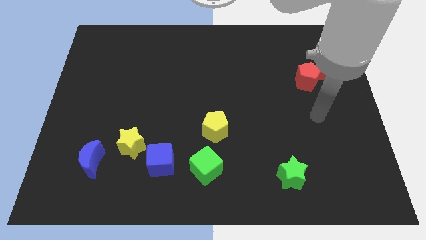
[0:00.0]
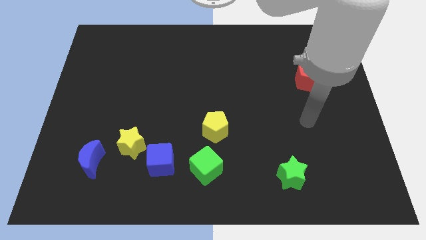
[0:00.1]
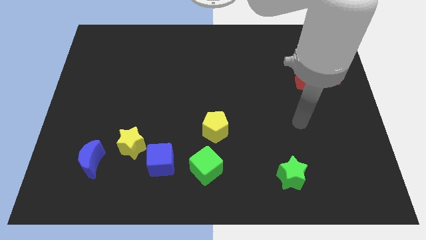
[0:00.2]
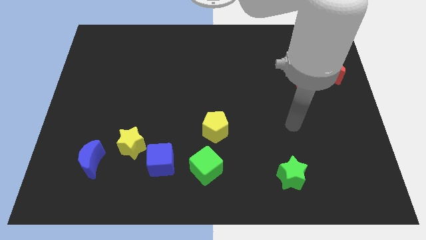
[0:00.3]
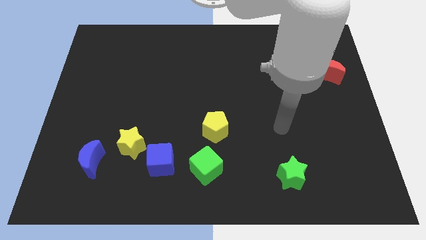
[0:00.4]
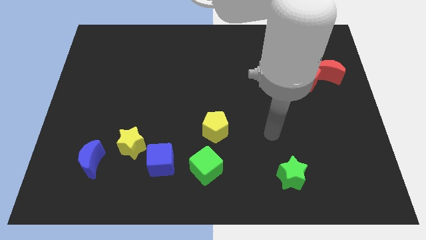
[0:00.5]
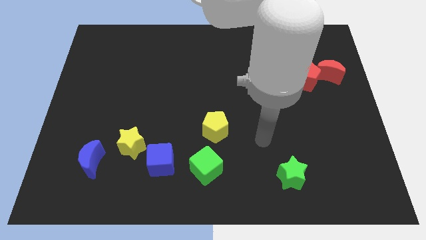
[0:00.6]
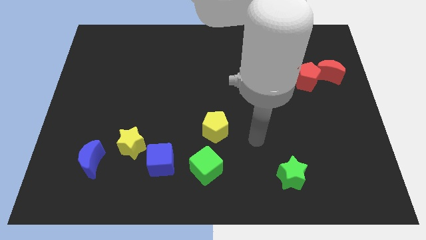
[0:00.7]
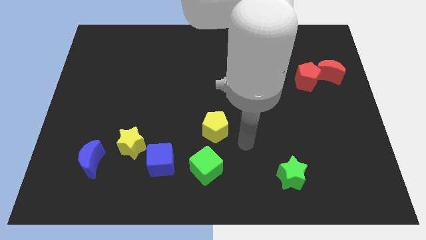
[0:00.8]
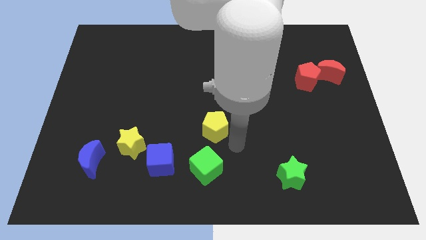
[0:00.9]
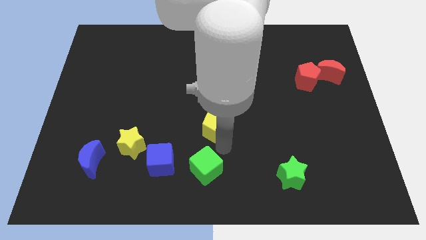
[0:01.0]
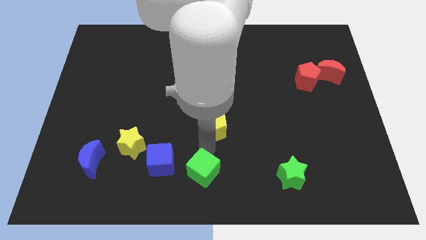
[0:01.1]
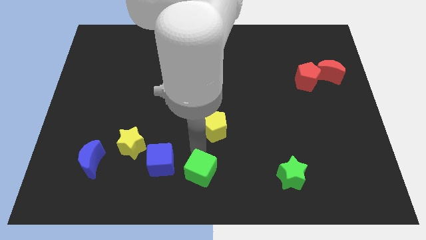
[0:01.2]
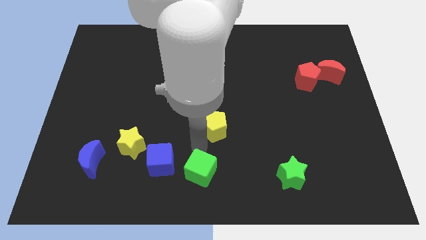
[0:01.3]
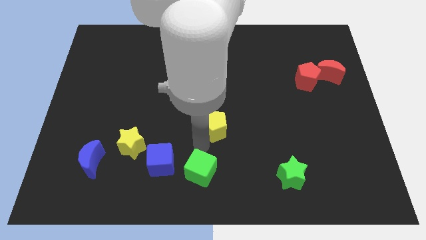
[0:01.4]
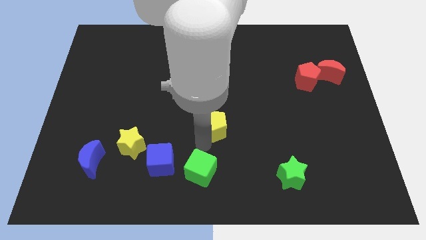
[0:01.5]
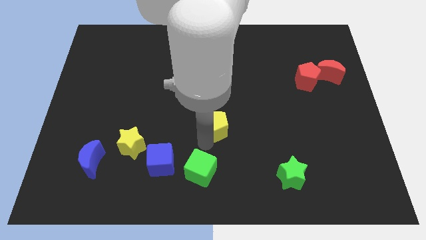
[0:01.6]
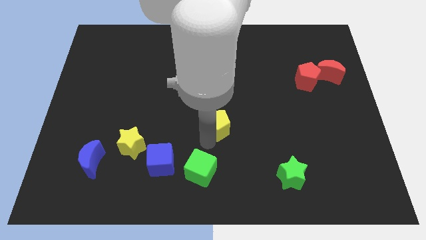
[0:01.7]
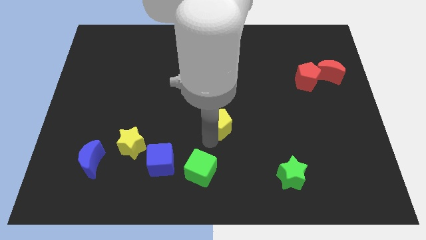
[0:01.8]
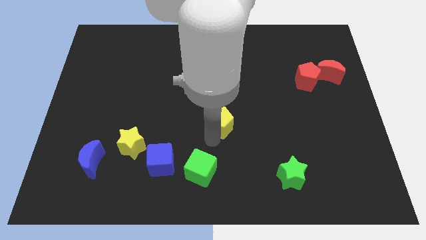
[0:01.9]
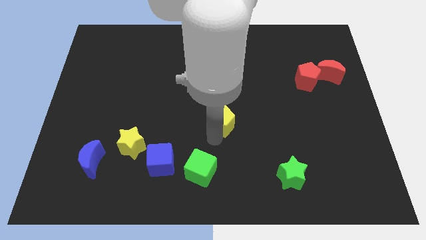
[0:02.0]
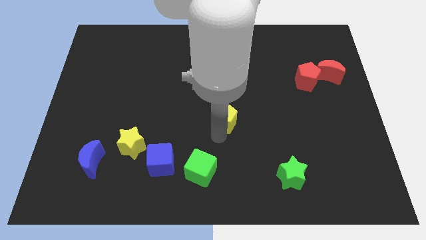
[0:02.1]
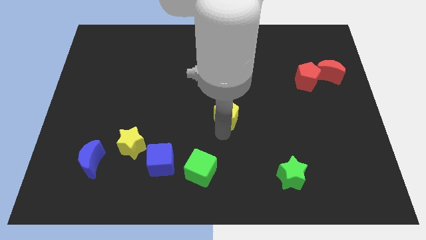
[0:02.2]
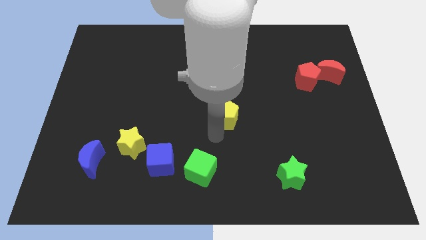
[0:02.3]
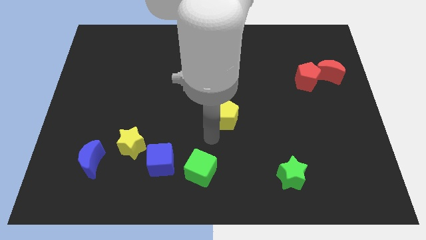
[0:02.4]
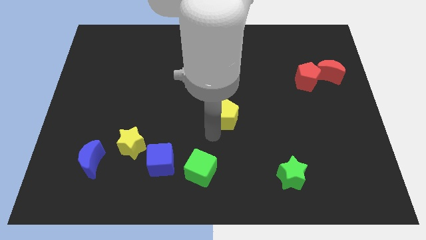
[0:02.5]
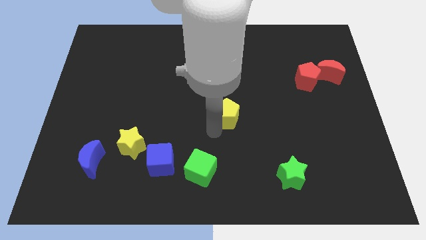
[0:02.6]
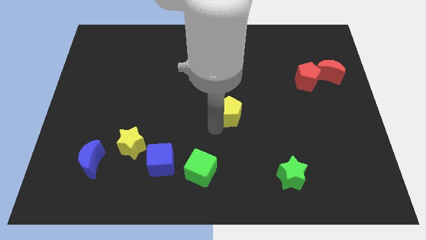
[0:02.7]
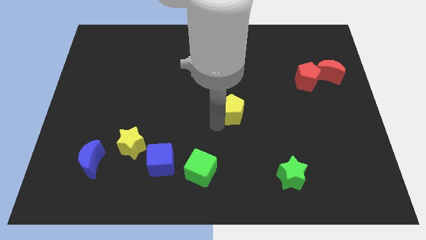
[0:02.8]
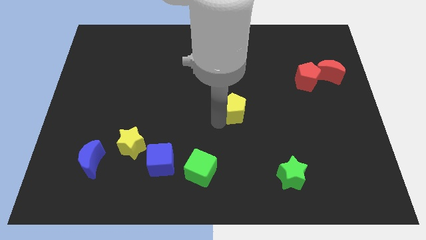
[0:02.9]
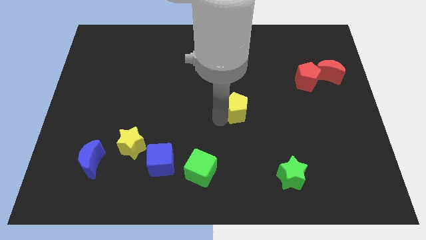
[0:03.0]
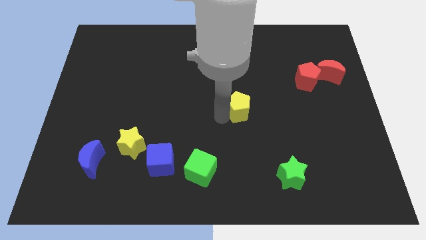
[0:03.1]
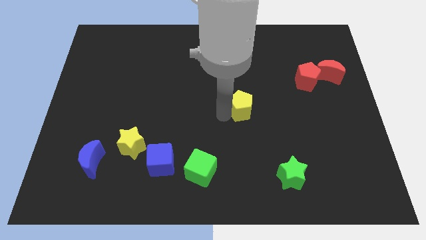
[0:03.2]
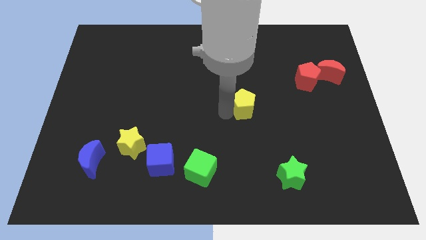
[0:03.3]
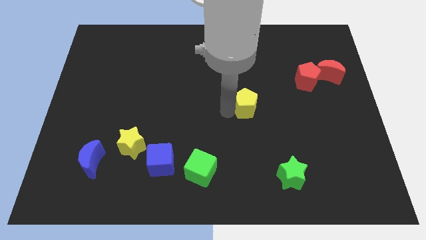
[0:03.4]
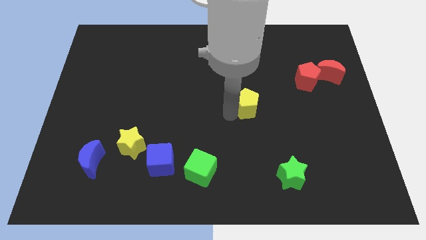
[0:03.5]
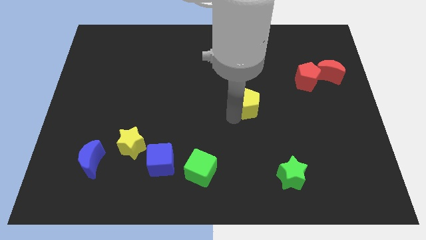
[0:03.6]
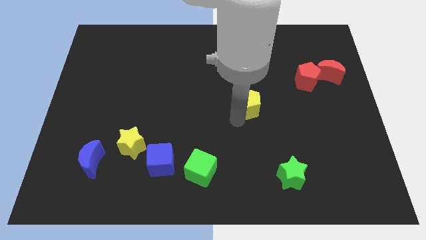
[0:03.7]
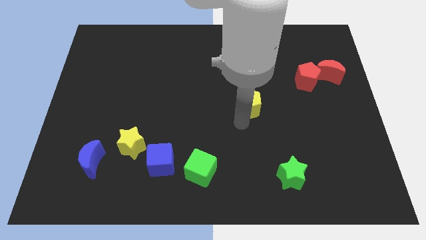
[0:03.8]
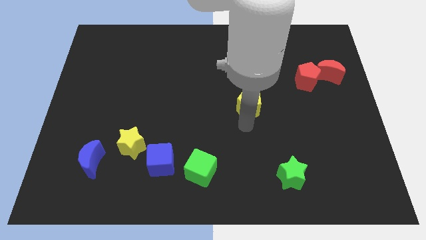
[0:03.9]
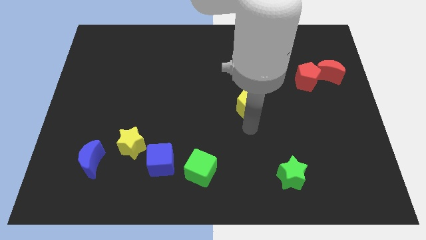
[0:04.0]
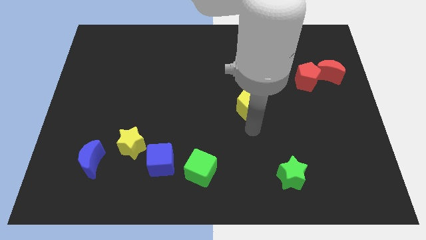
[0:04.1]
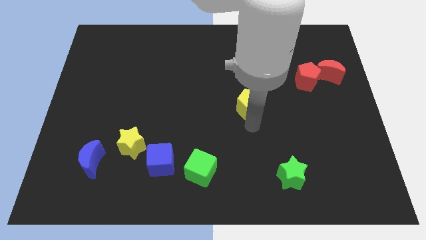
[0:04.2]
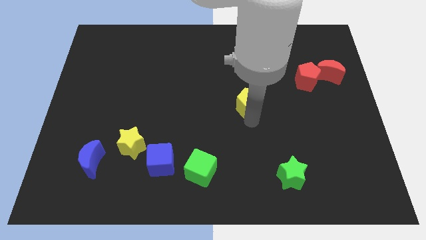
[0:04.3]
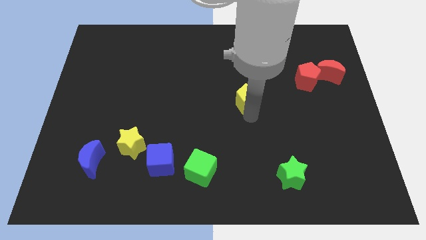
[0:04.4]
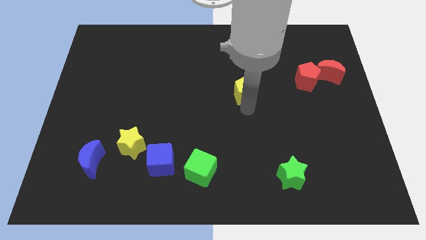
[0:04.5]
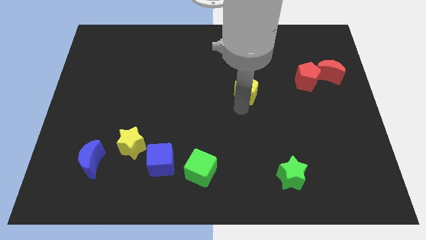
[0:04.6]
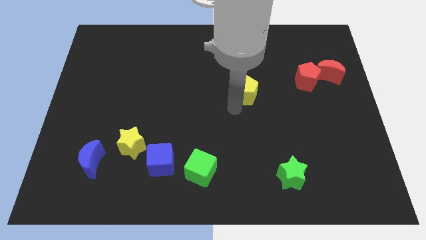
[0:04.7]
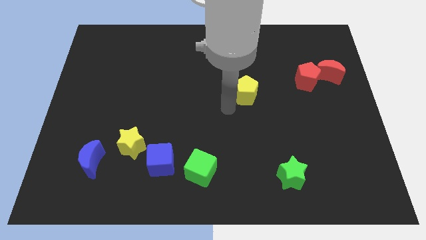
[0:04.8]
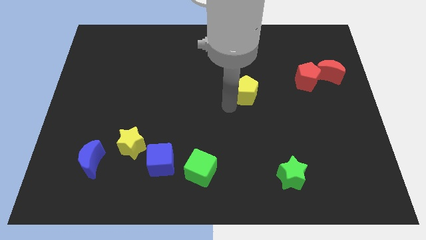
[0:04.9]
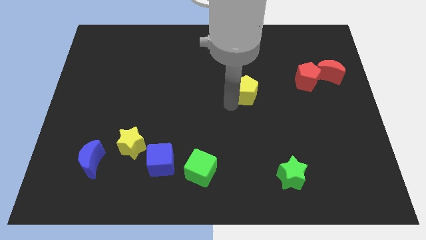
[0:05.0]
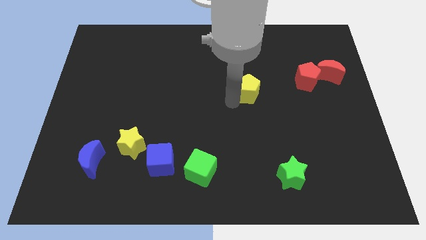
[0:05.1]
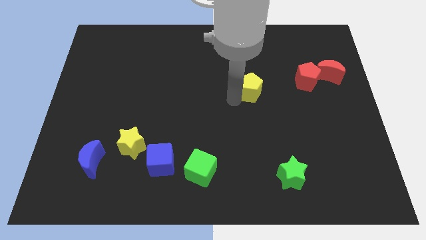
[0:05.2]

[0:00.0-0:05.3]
move the yellow pentagon just left of the red pentagon

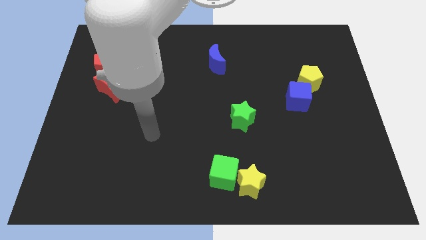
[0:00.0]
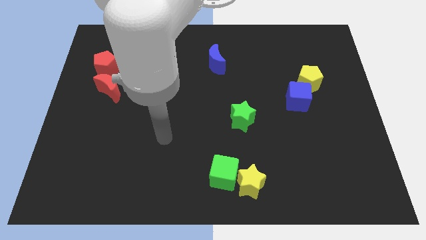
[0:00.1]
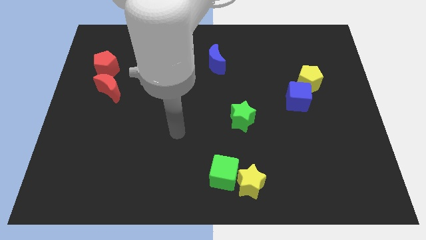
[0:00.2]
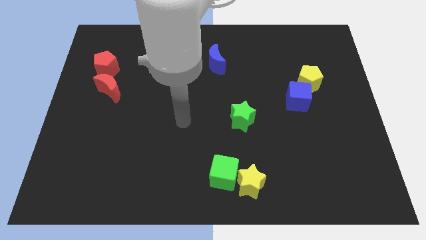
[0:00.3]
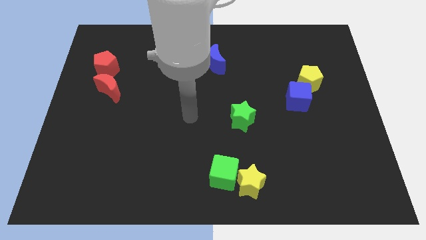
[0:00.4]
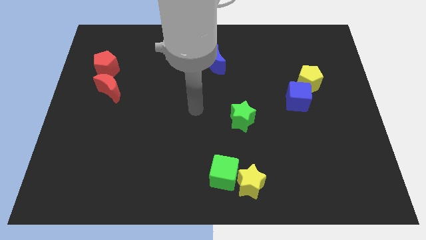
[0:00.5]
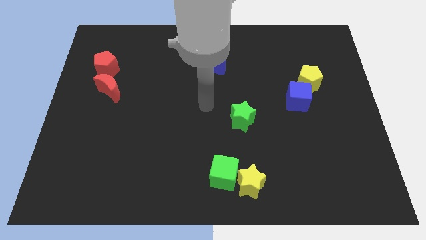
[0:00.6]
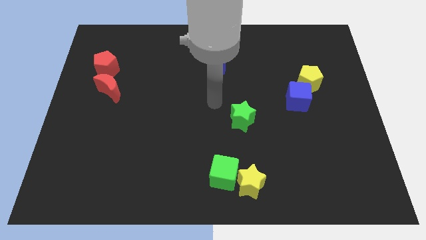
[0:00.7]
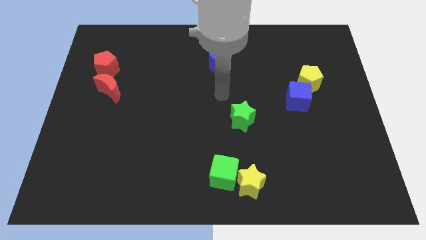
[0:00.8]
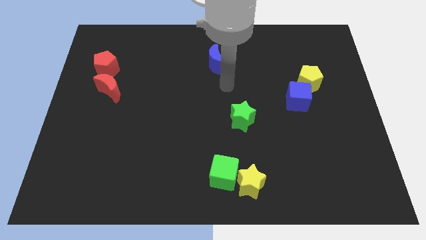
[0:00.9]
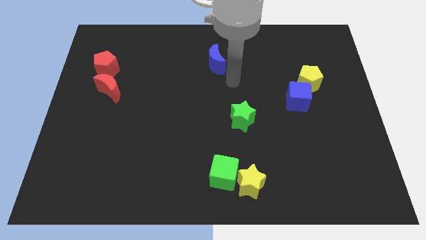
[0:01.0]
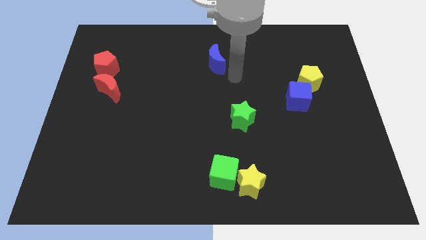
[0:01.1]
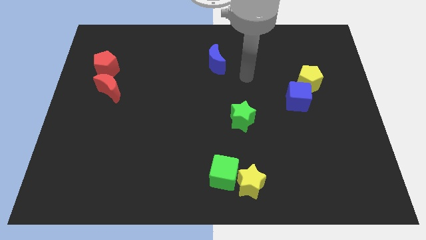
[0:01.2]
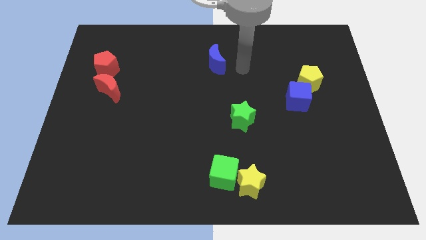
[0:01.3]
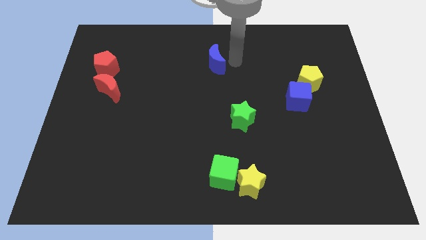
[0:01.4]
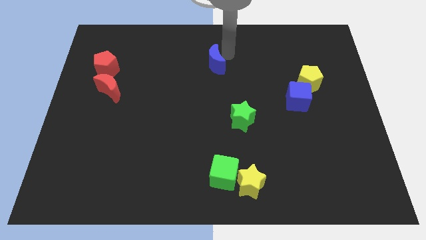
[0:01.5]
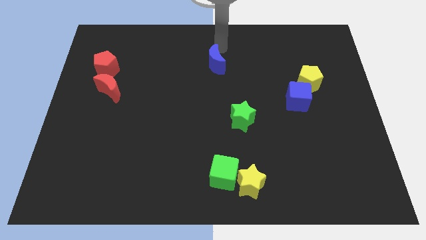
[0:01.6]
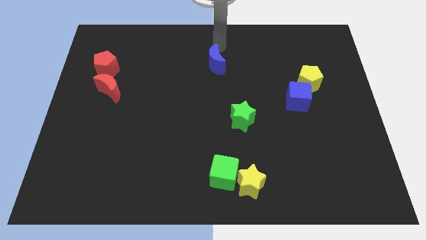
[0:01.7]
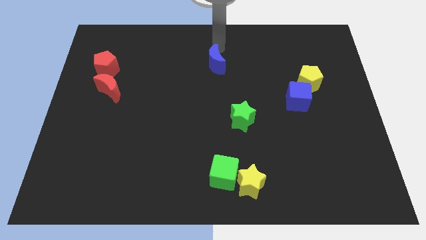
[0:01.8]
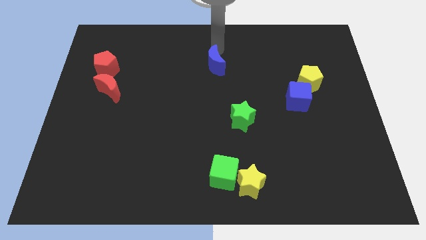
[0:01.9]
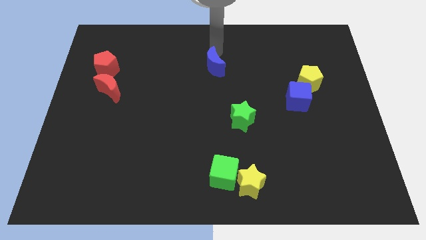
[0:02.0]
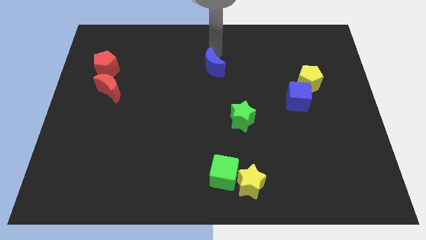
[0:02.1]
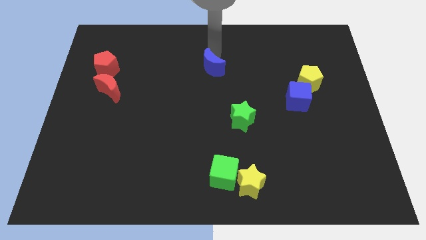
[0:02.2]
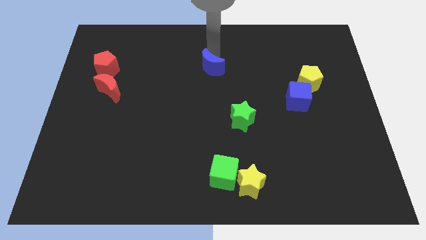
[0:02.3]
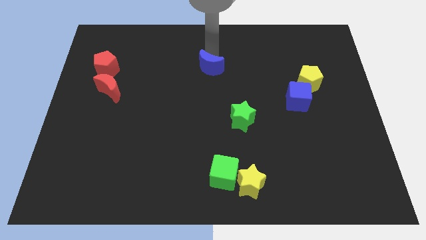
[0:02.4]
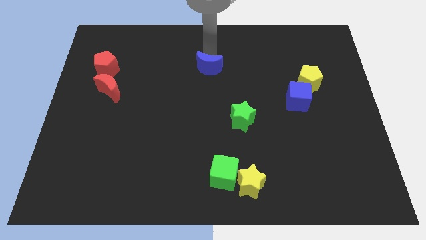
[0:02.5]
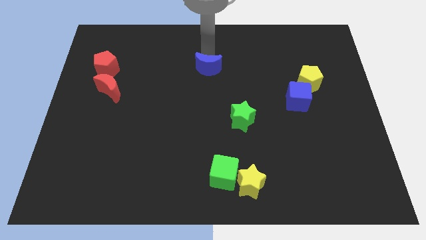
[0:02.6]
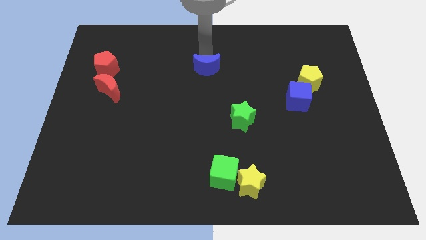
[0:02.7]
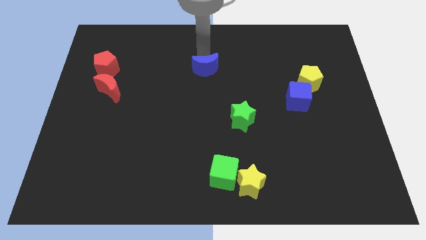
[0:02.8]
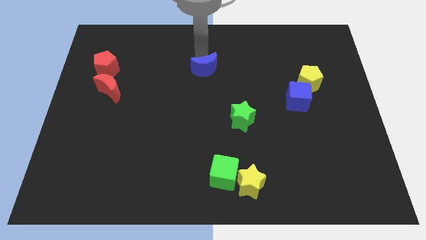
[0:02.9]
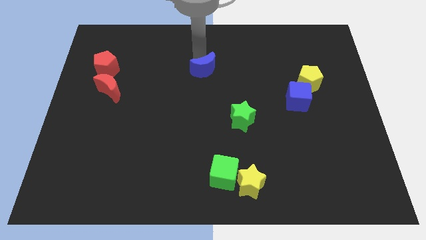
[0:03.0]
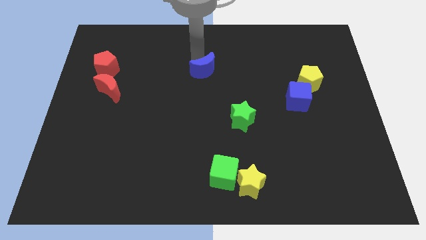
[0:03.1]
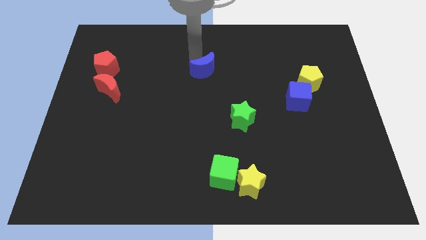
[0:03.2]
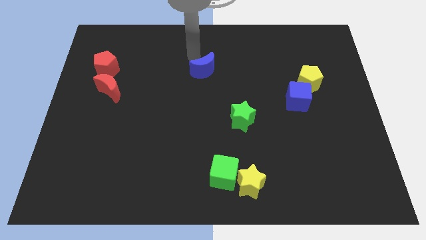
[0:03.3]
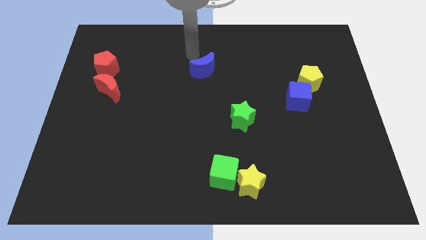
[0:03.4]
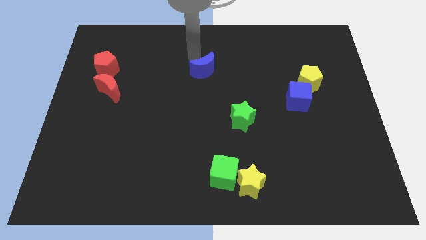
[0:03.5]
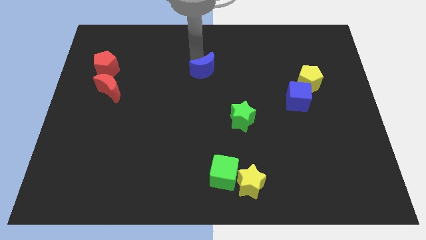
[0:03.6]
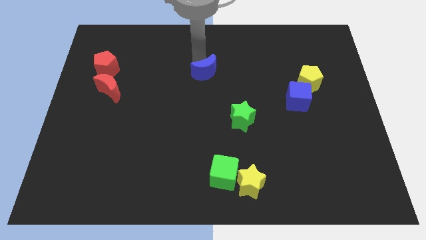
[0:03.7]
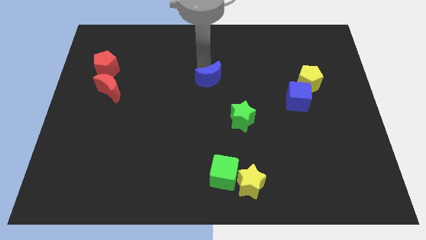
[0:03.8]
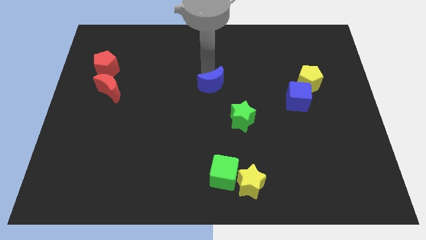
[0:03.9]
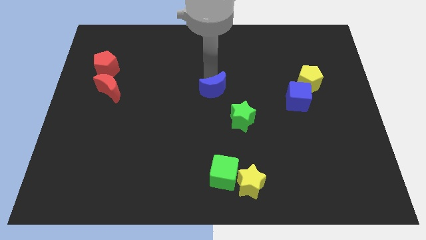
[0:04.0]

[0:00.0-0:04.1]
push the blue moon diagonally up and to the left of the green star
